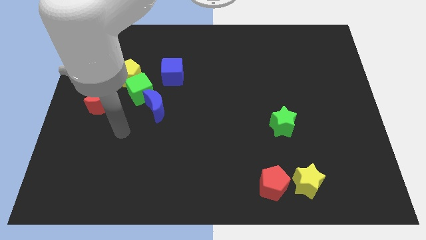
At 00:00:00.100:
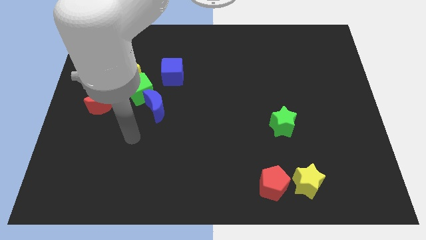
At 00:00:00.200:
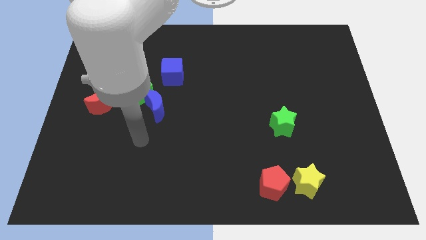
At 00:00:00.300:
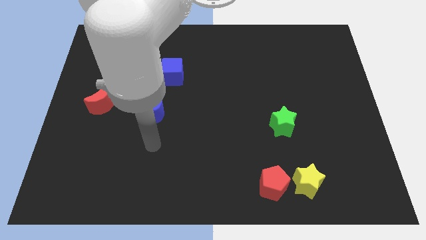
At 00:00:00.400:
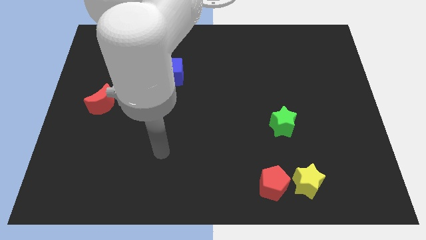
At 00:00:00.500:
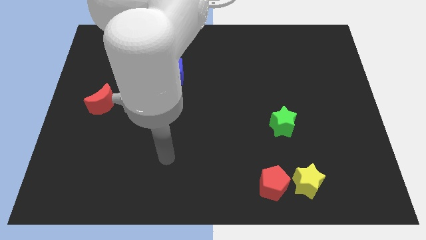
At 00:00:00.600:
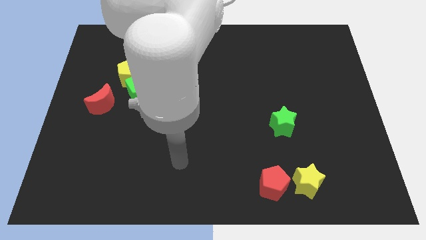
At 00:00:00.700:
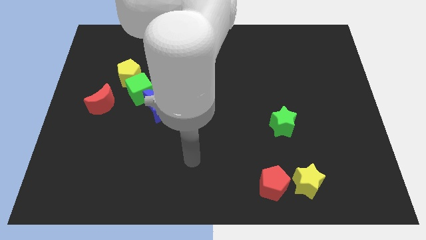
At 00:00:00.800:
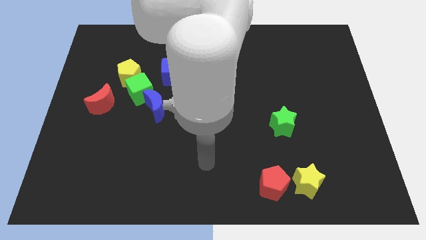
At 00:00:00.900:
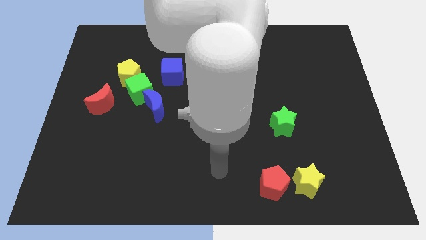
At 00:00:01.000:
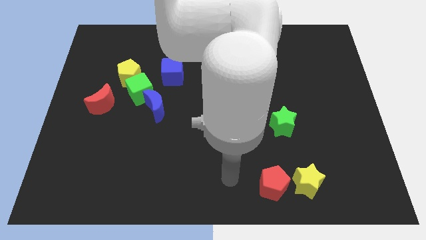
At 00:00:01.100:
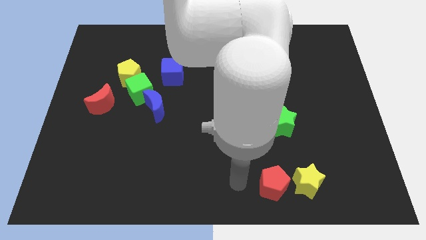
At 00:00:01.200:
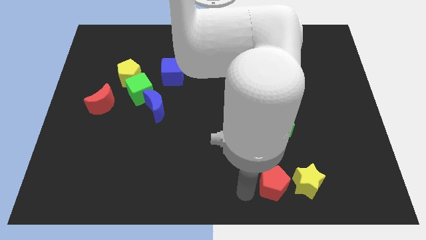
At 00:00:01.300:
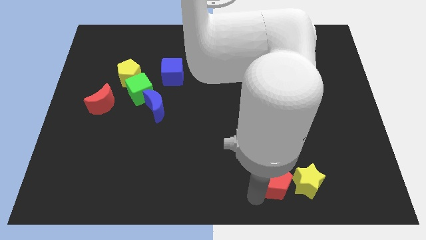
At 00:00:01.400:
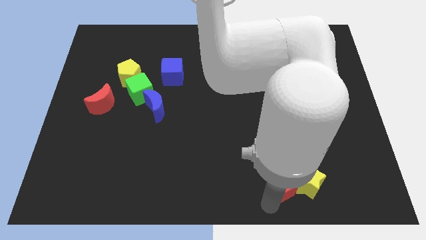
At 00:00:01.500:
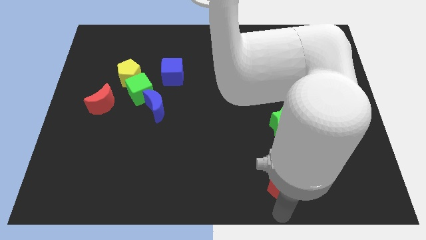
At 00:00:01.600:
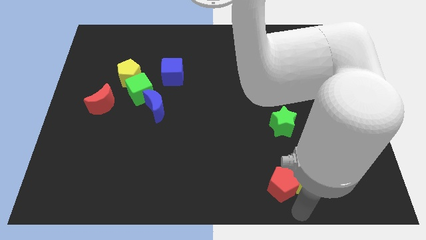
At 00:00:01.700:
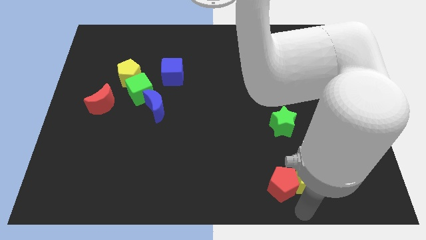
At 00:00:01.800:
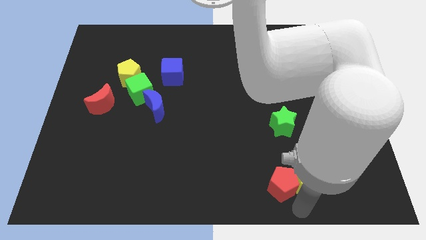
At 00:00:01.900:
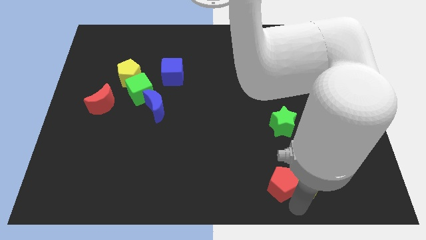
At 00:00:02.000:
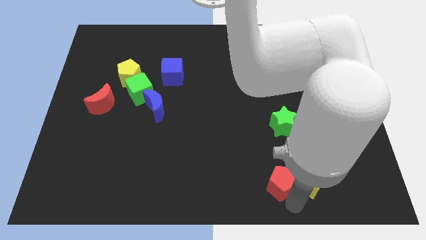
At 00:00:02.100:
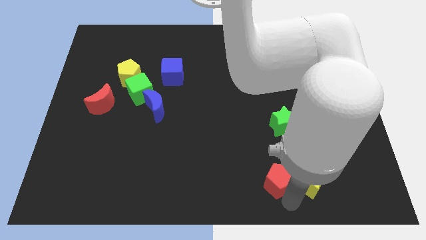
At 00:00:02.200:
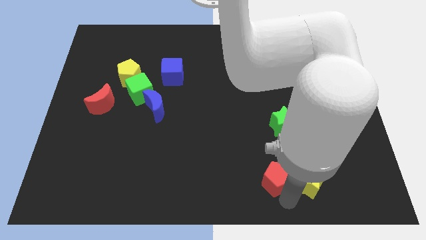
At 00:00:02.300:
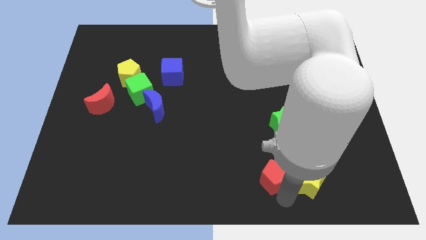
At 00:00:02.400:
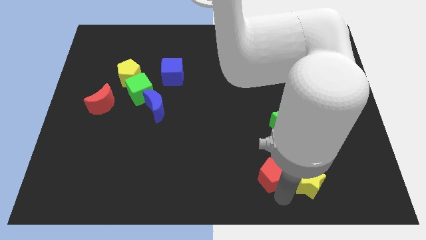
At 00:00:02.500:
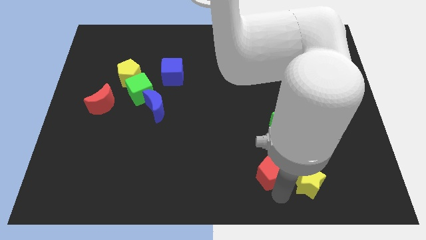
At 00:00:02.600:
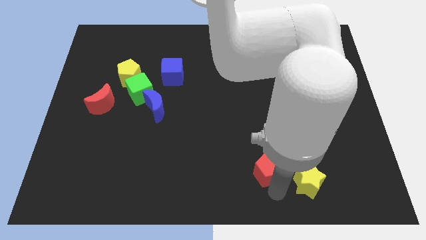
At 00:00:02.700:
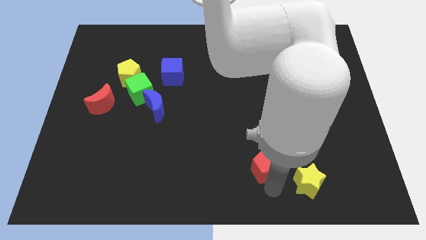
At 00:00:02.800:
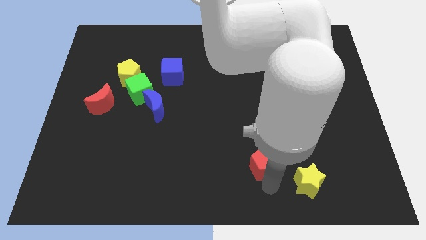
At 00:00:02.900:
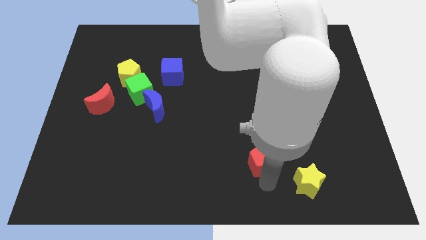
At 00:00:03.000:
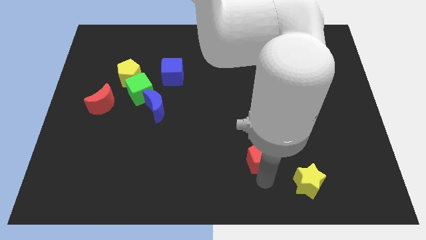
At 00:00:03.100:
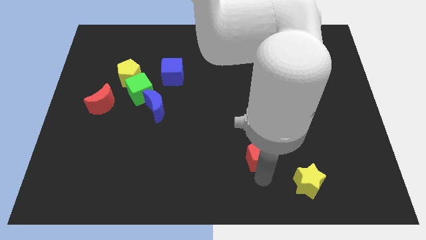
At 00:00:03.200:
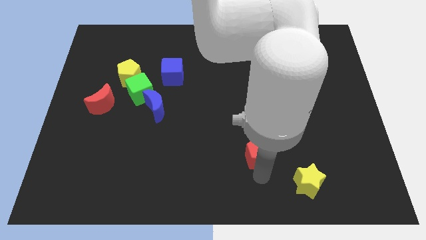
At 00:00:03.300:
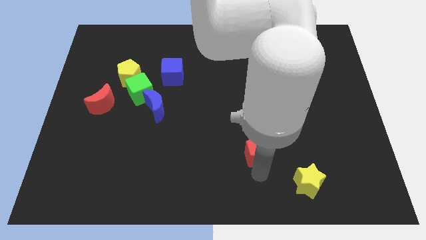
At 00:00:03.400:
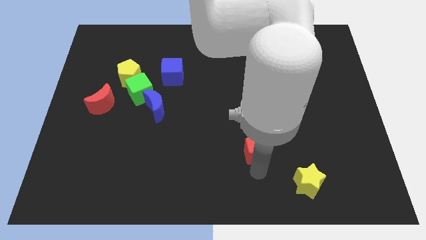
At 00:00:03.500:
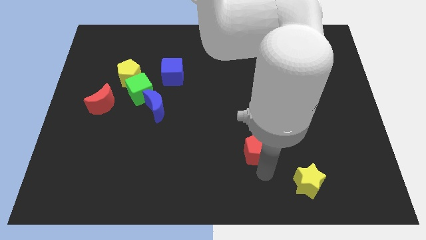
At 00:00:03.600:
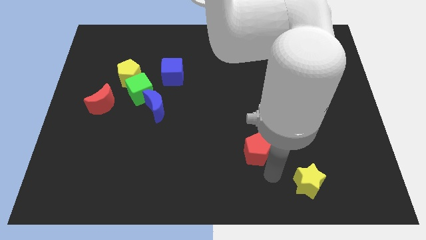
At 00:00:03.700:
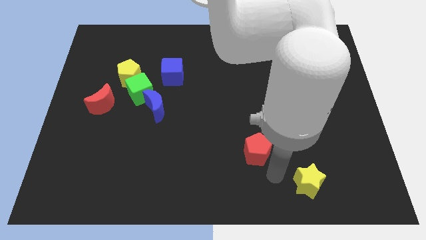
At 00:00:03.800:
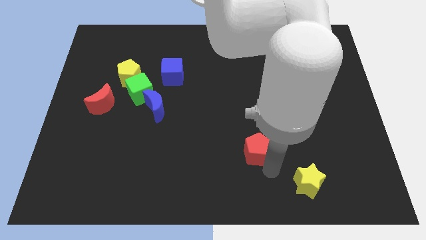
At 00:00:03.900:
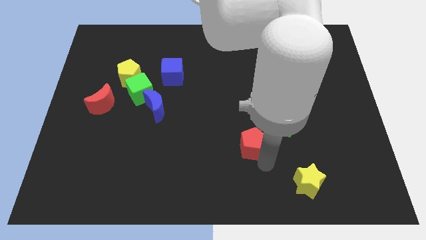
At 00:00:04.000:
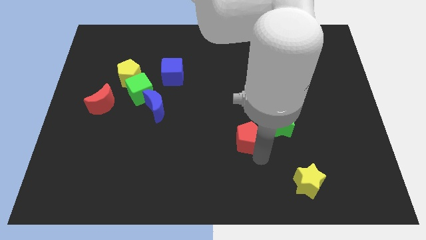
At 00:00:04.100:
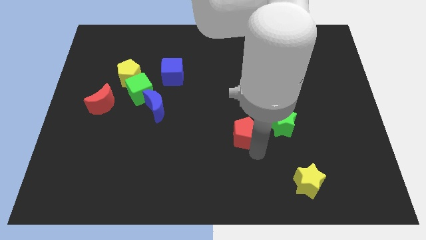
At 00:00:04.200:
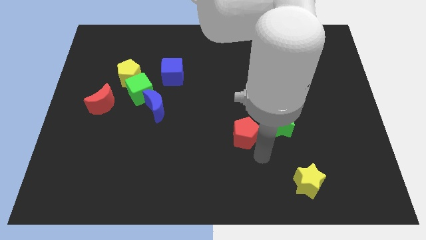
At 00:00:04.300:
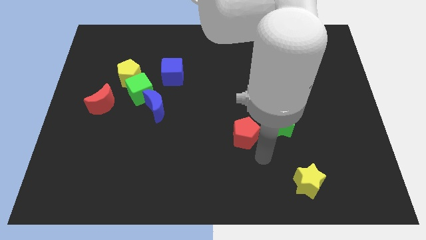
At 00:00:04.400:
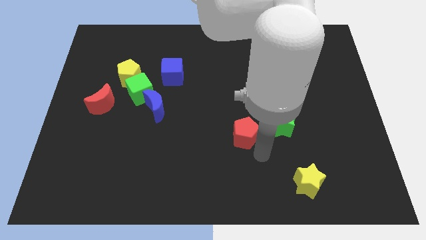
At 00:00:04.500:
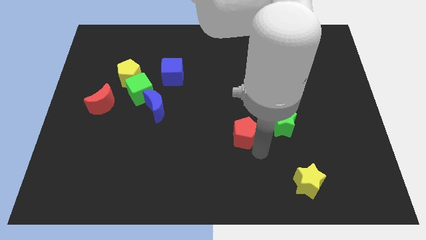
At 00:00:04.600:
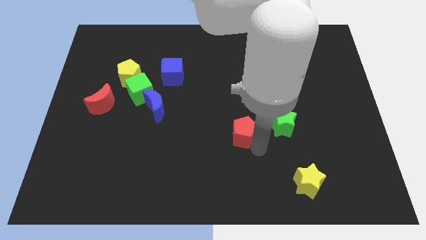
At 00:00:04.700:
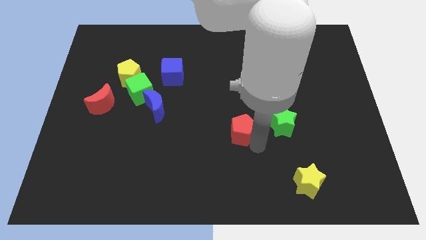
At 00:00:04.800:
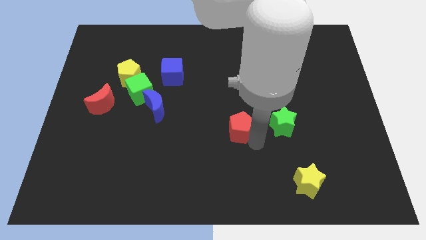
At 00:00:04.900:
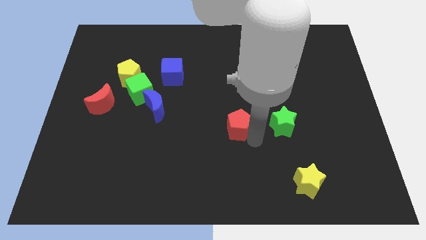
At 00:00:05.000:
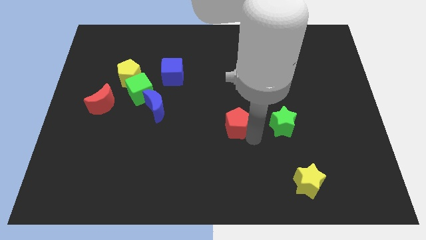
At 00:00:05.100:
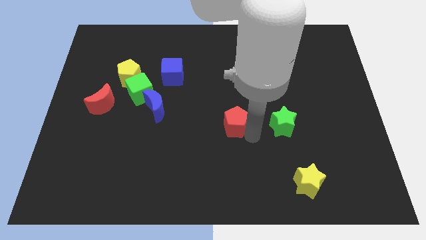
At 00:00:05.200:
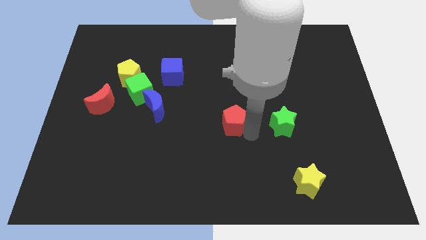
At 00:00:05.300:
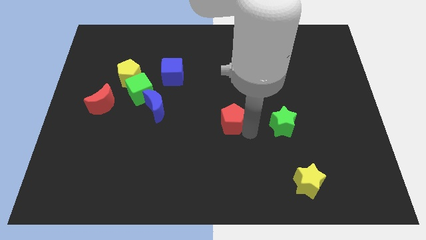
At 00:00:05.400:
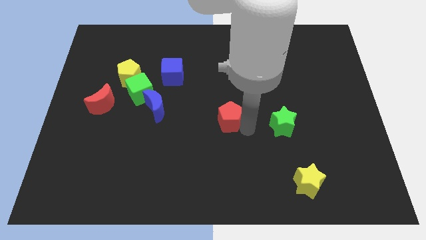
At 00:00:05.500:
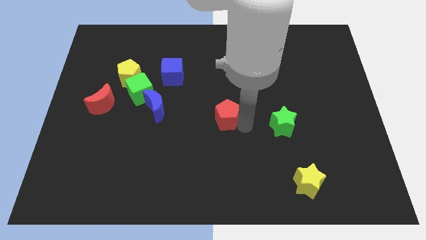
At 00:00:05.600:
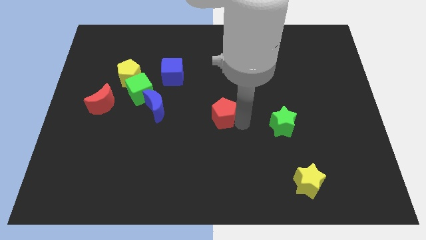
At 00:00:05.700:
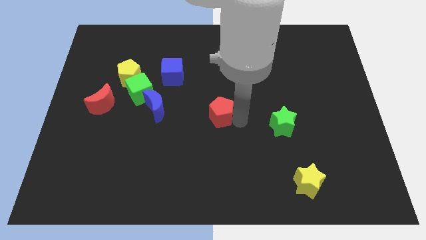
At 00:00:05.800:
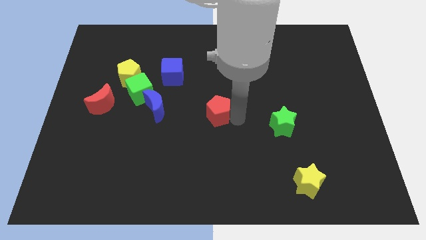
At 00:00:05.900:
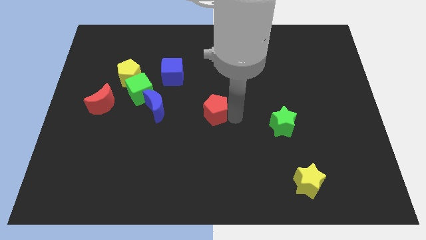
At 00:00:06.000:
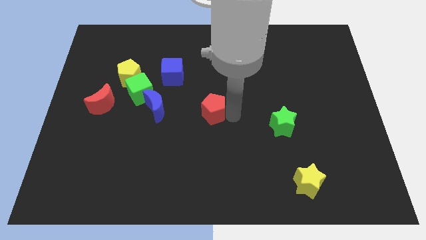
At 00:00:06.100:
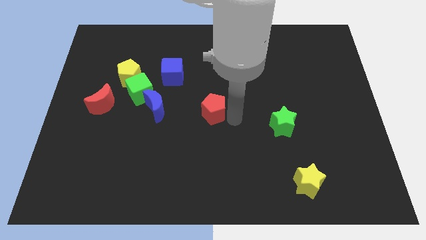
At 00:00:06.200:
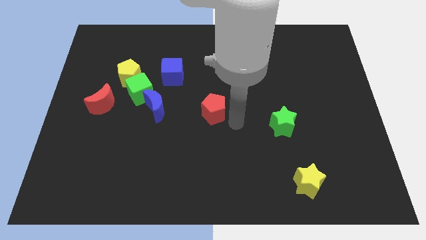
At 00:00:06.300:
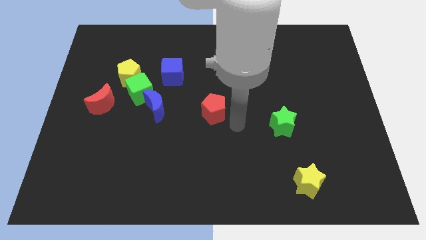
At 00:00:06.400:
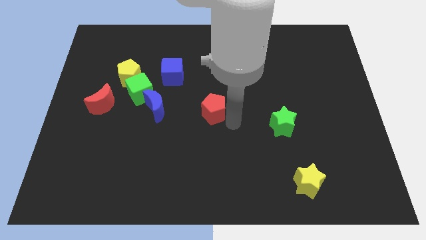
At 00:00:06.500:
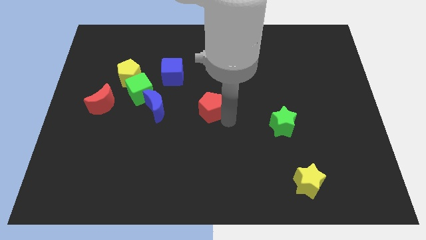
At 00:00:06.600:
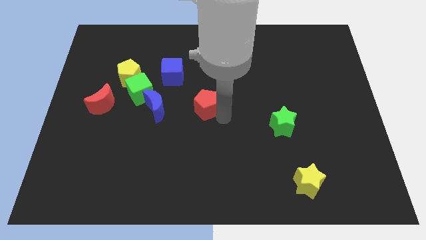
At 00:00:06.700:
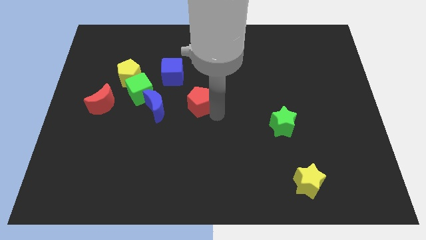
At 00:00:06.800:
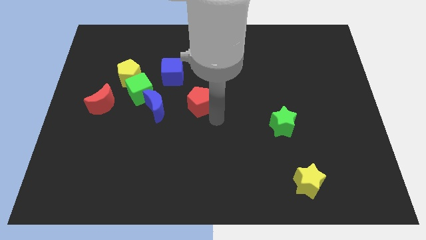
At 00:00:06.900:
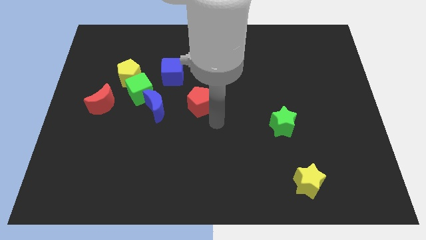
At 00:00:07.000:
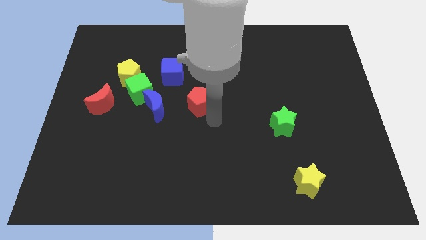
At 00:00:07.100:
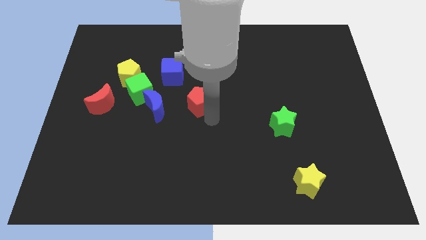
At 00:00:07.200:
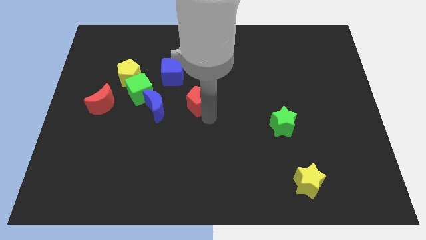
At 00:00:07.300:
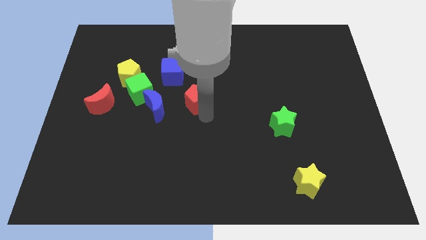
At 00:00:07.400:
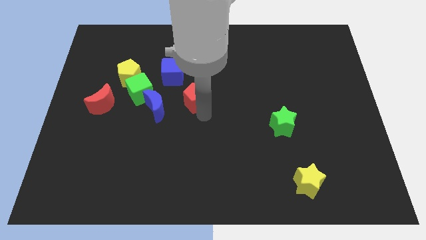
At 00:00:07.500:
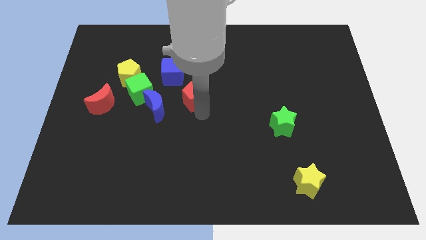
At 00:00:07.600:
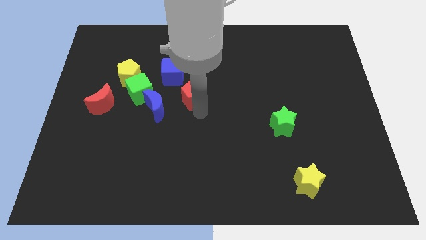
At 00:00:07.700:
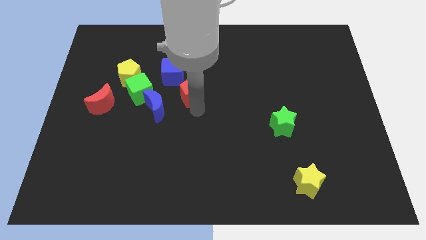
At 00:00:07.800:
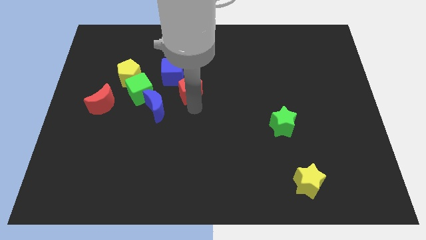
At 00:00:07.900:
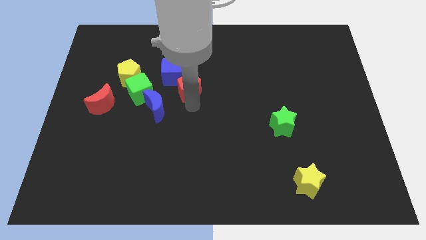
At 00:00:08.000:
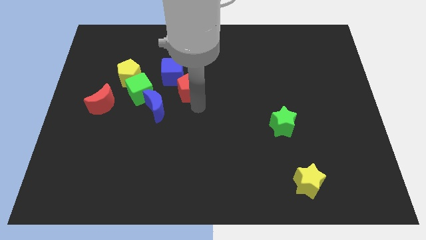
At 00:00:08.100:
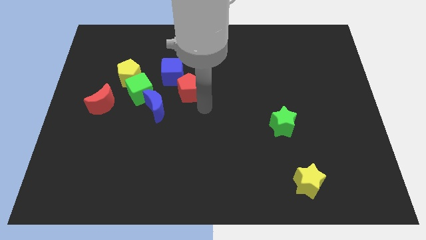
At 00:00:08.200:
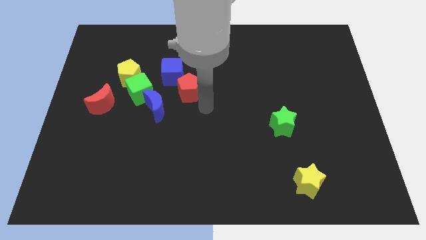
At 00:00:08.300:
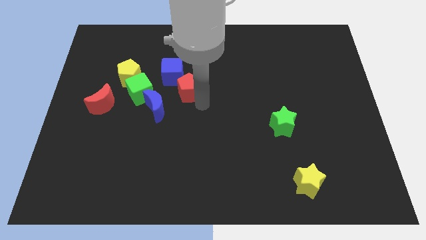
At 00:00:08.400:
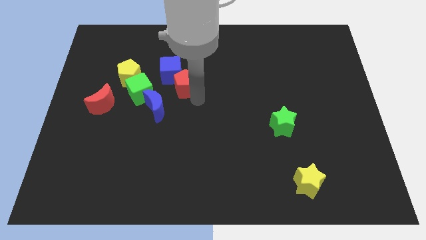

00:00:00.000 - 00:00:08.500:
move the red pentagon towards the blue cube
